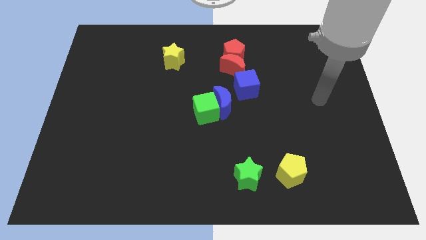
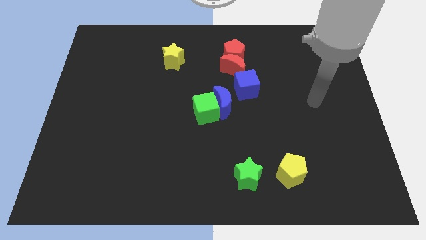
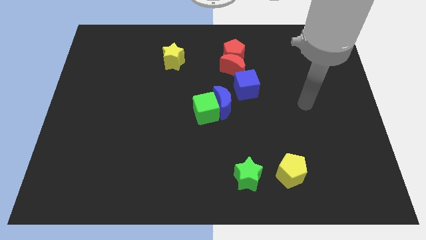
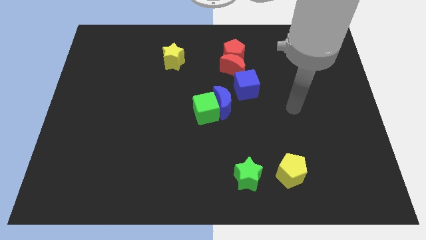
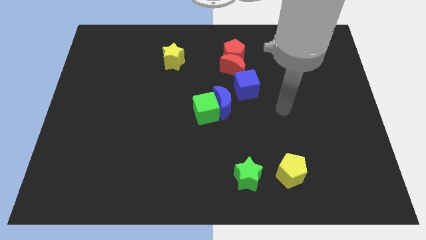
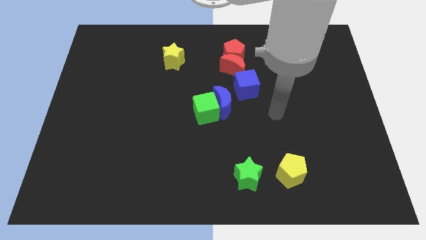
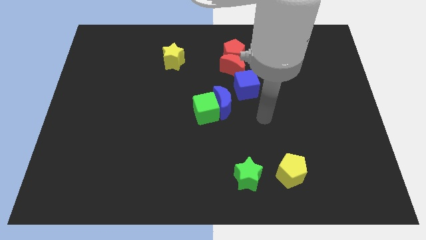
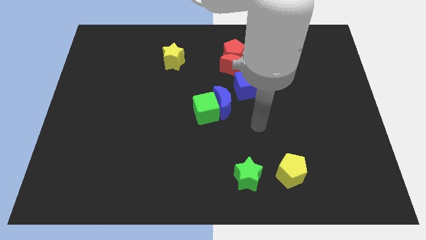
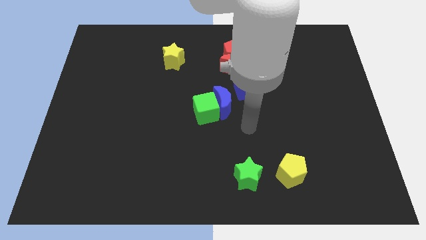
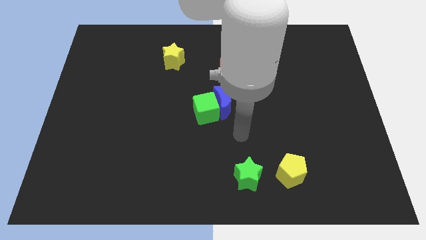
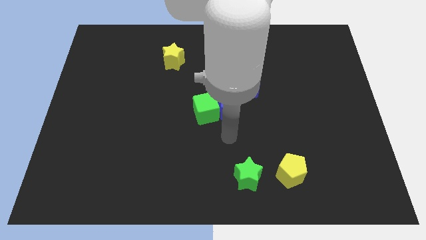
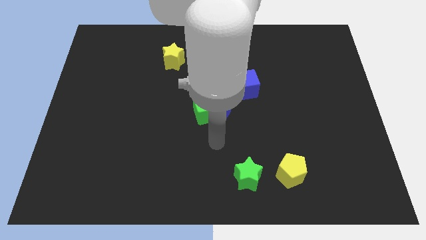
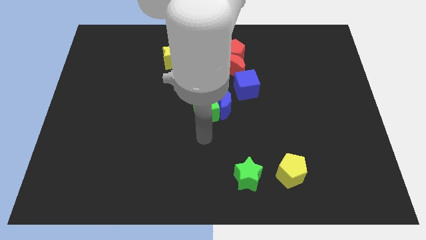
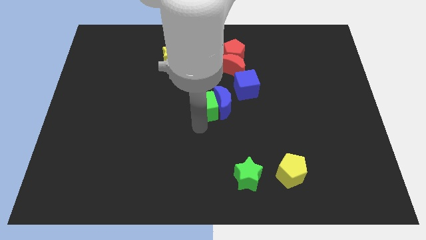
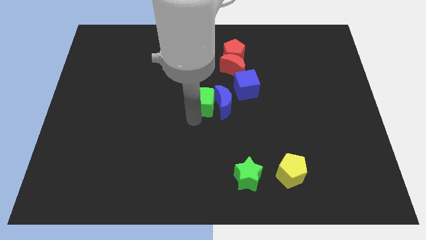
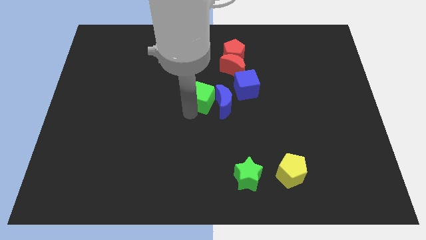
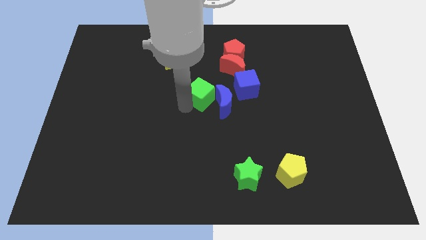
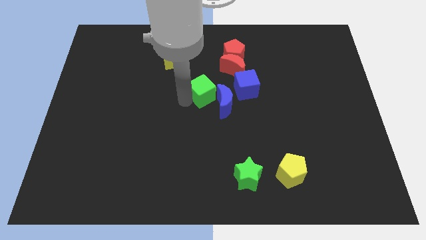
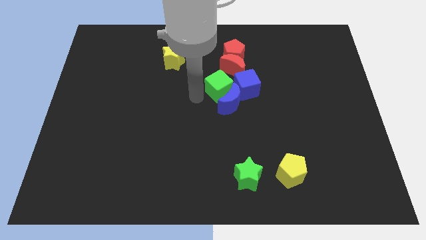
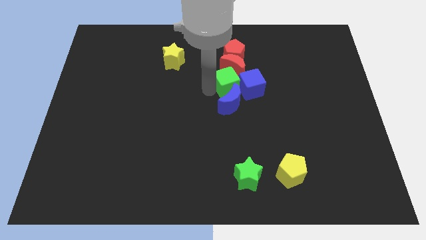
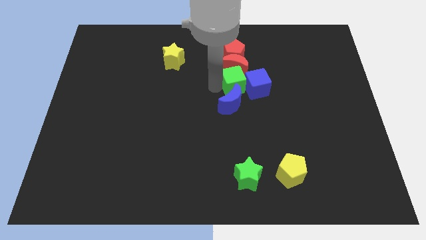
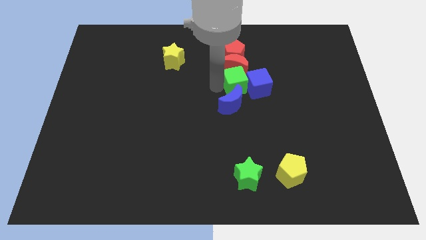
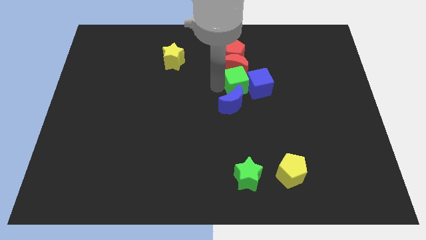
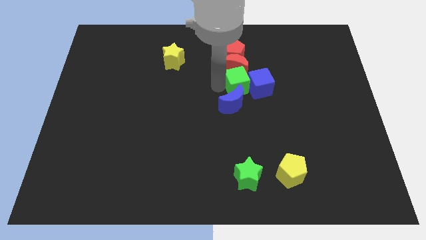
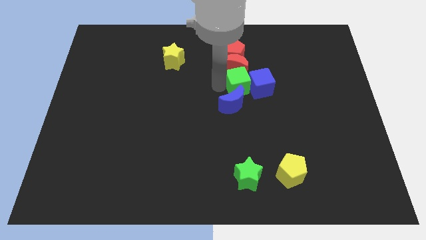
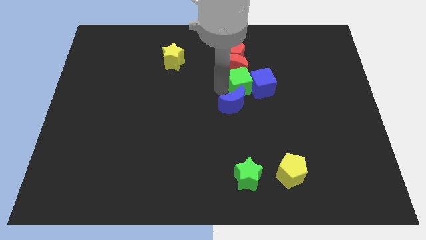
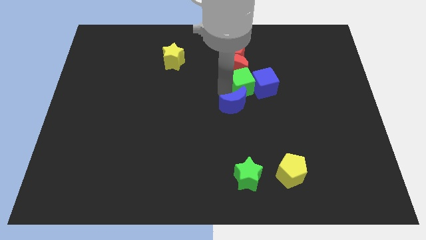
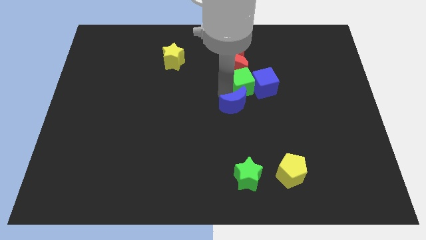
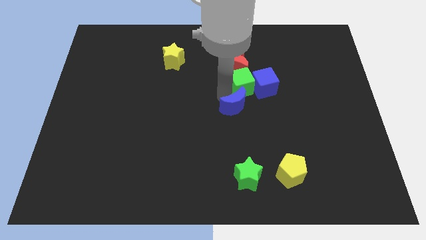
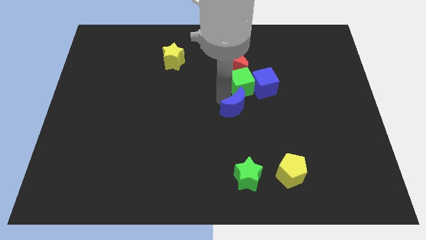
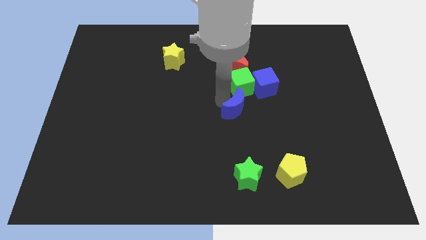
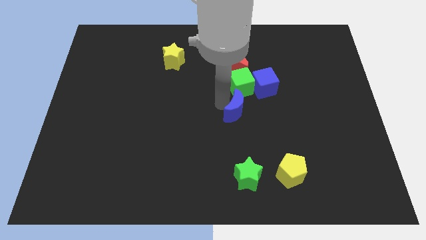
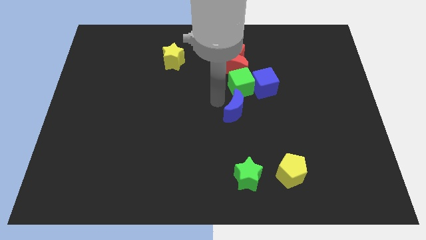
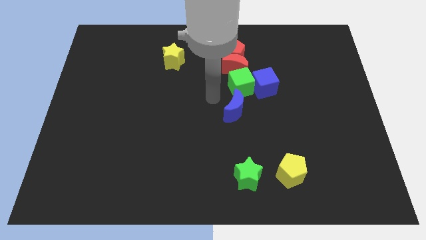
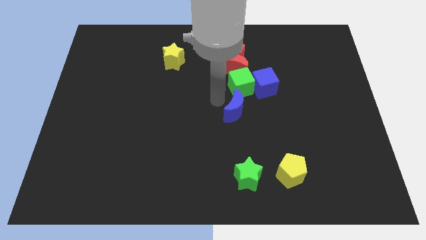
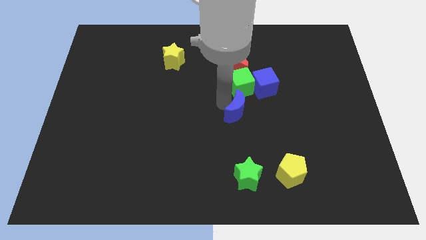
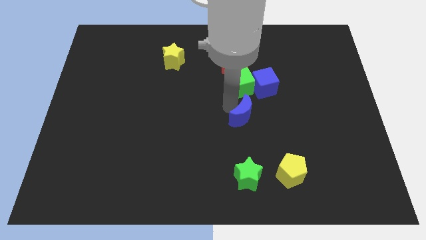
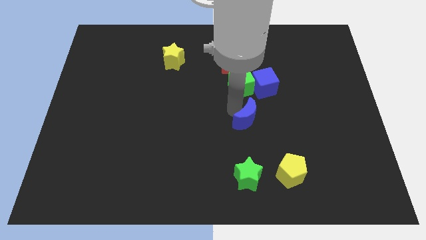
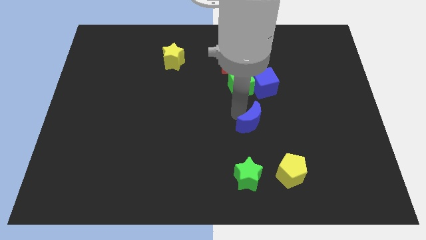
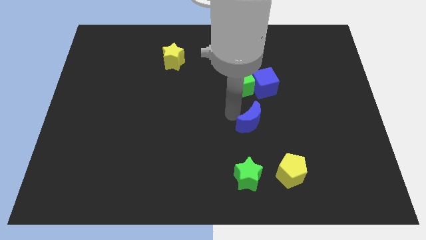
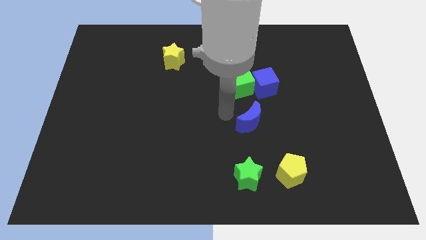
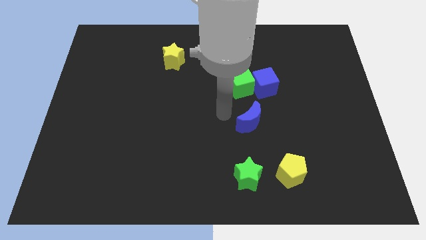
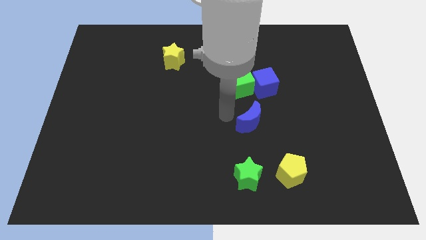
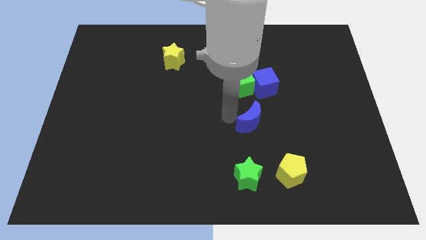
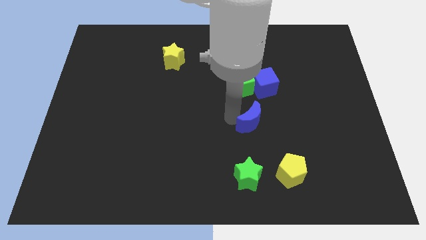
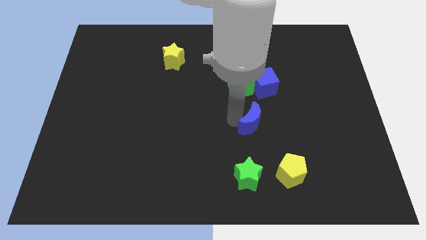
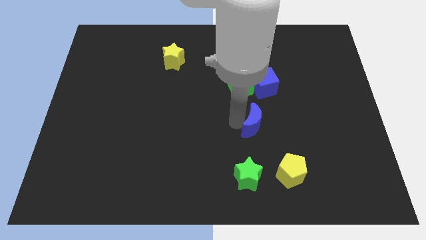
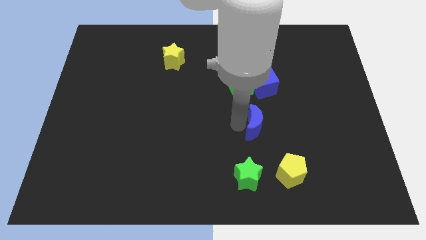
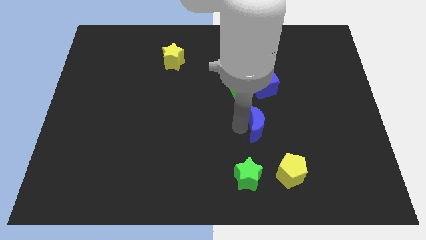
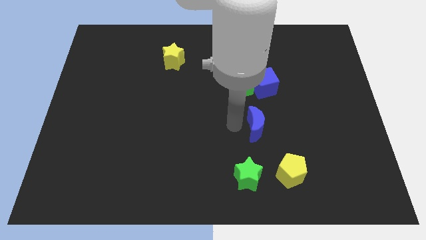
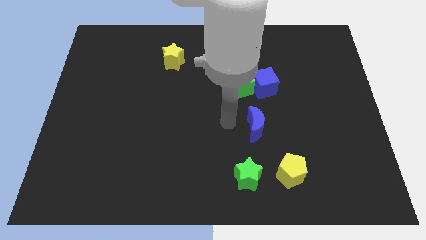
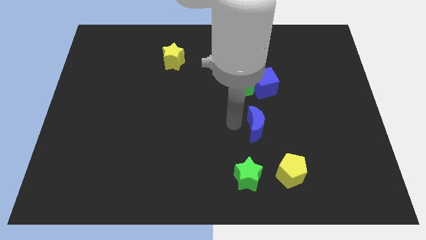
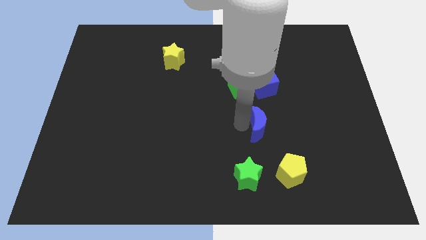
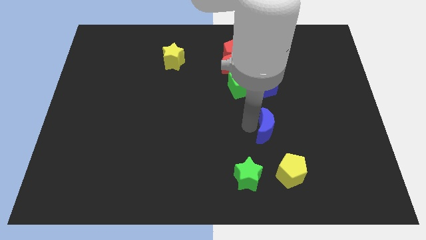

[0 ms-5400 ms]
slide the blue moon to the top of the yellow pentagon

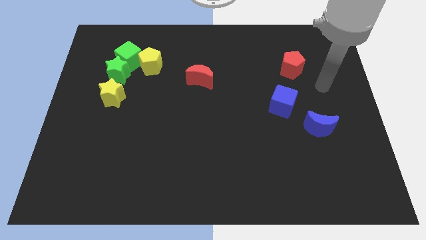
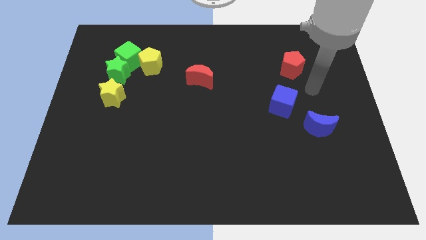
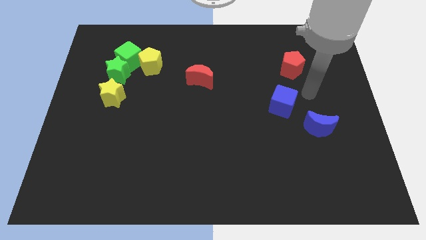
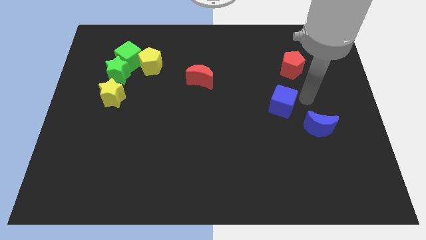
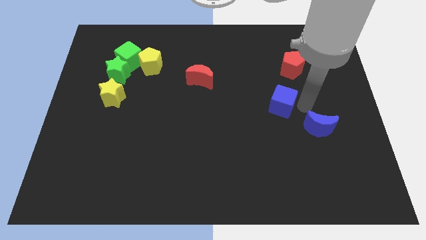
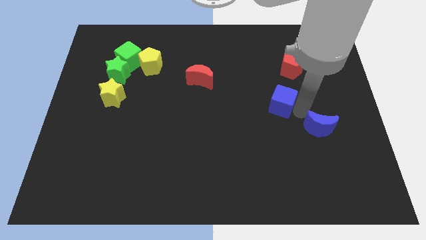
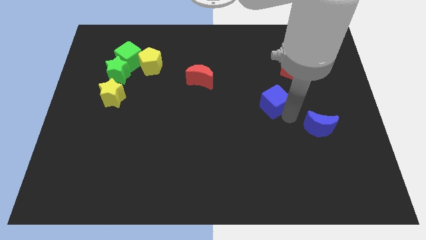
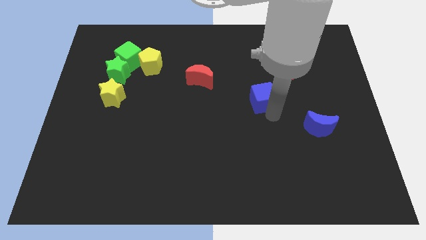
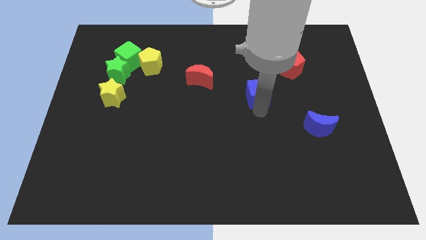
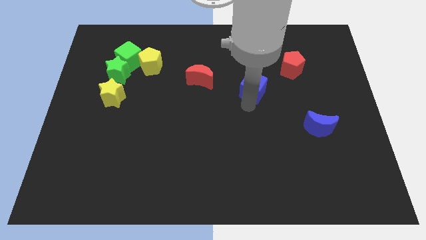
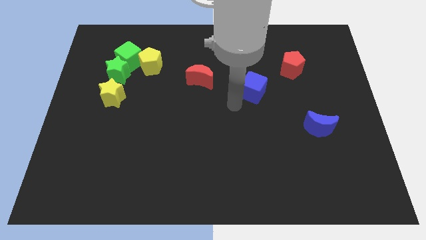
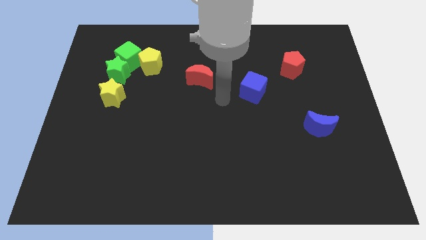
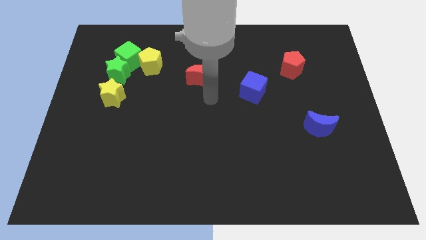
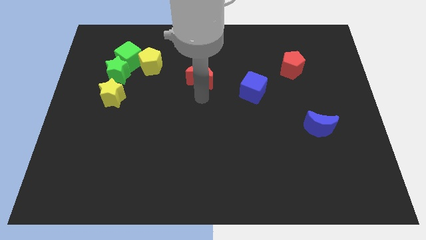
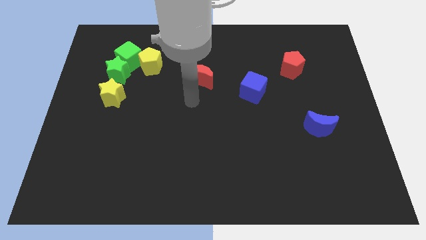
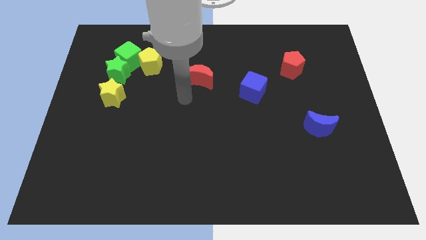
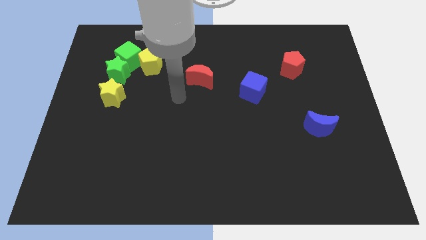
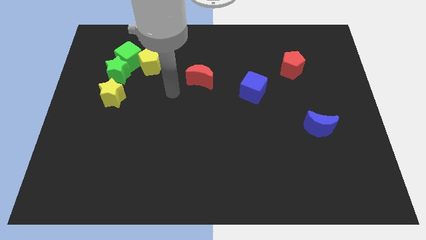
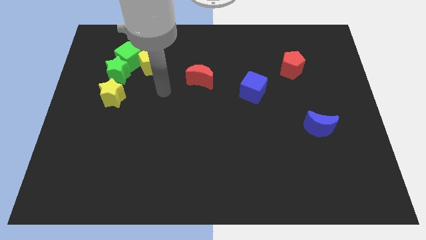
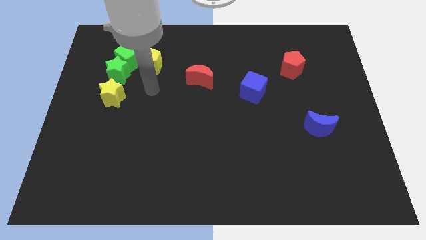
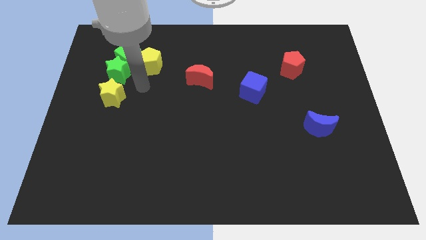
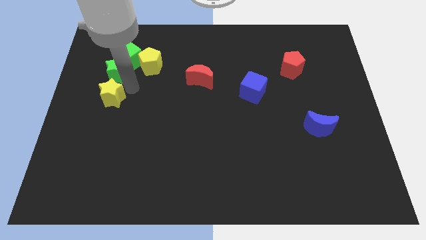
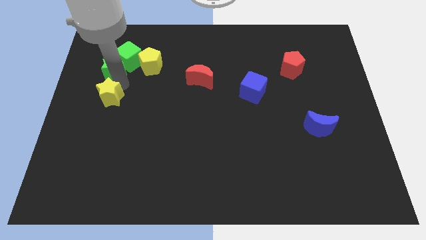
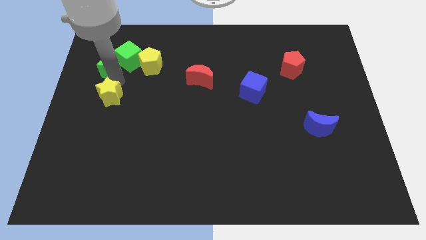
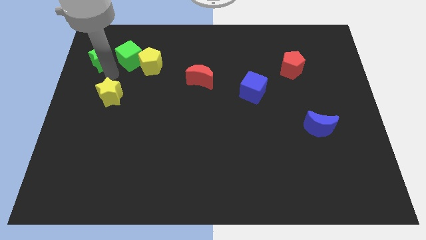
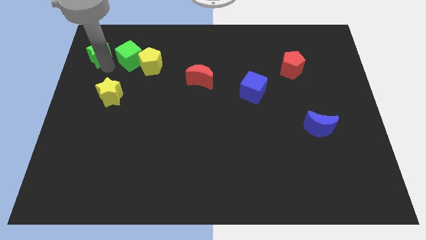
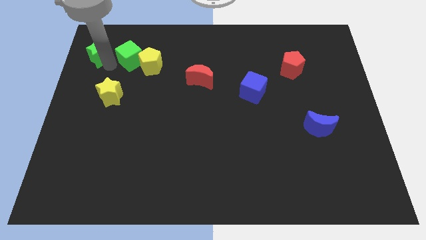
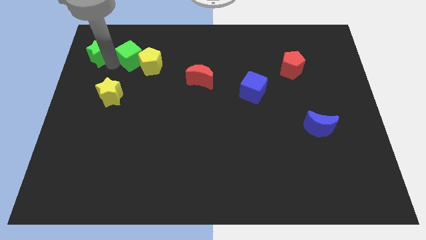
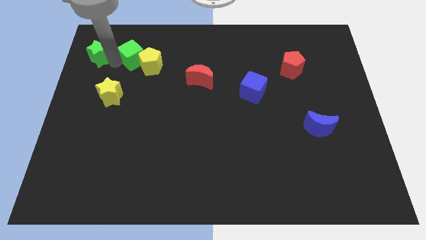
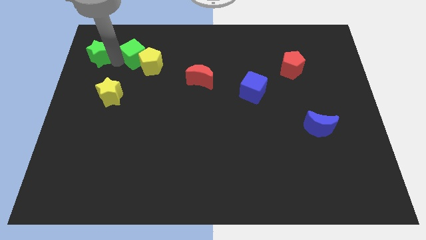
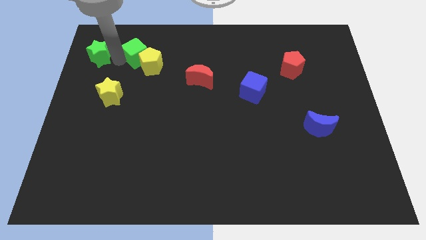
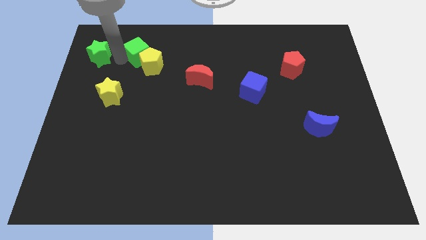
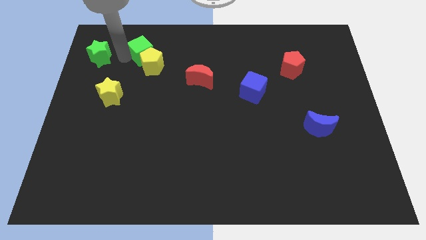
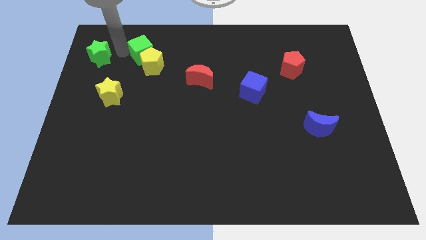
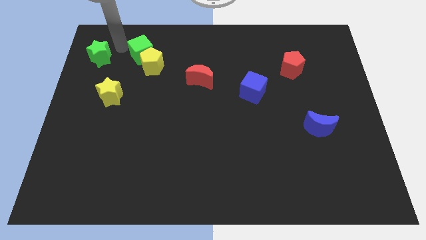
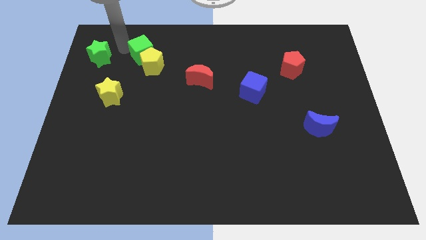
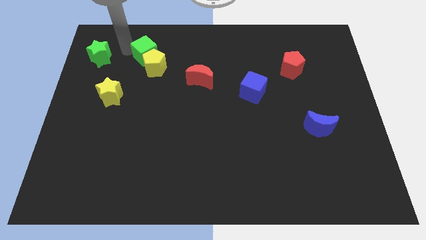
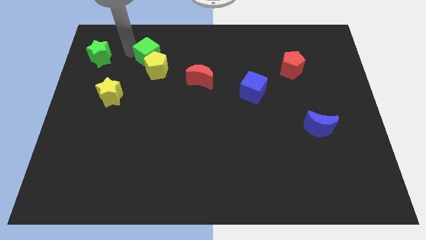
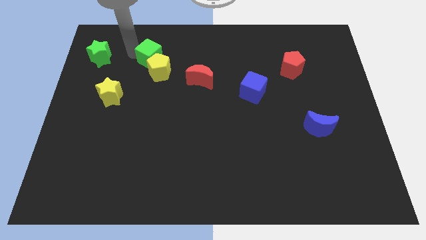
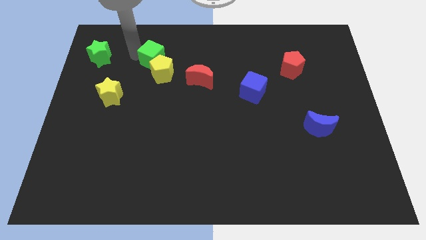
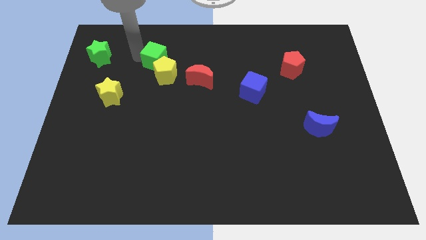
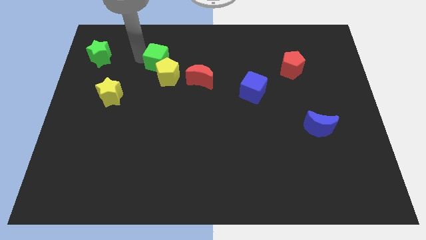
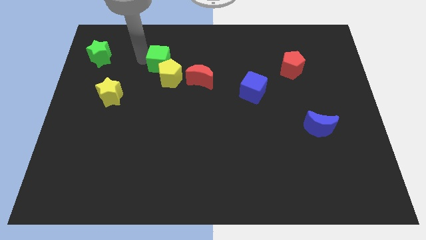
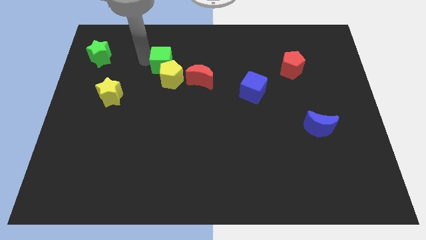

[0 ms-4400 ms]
push the green cube diagonally up and to the left of the red moon
